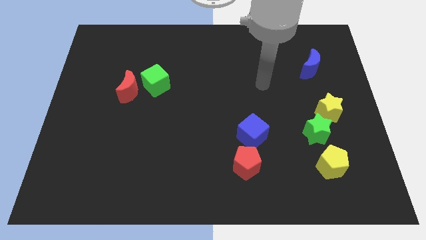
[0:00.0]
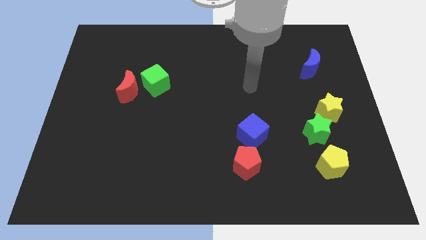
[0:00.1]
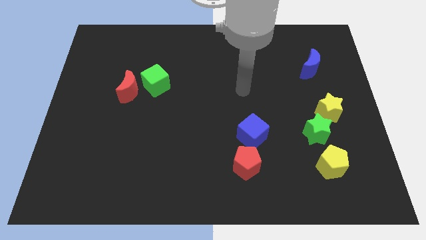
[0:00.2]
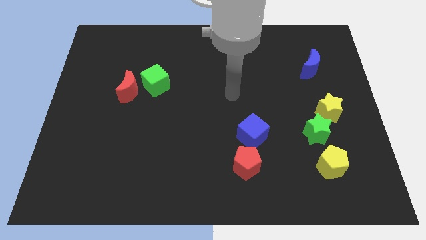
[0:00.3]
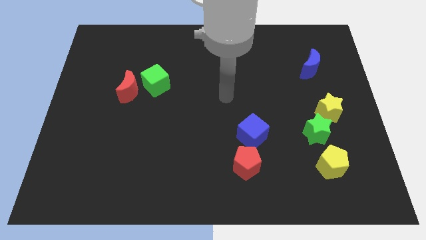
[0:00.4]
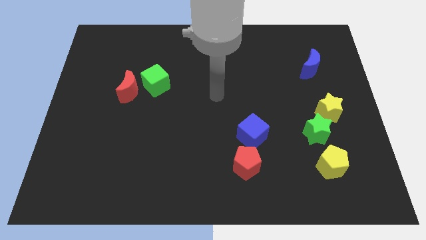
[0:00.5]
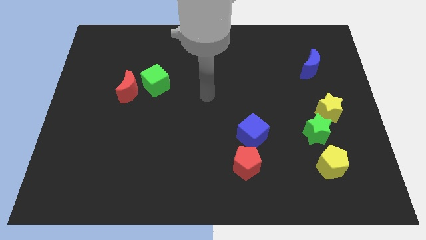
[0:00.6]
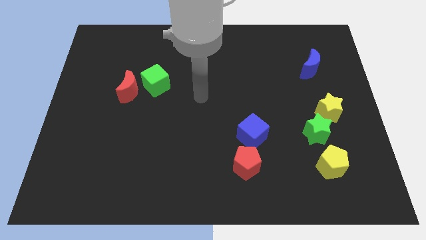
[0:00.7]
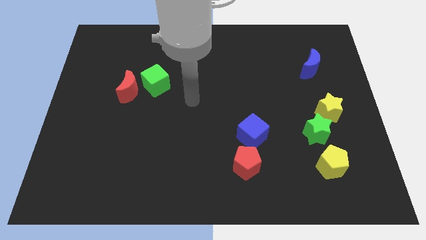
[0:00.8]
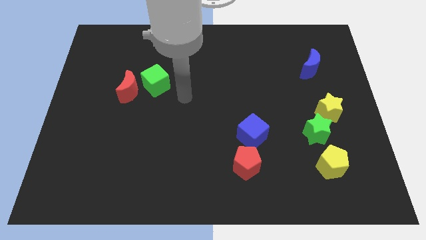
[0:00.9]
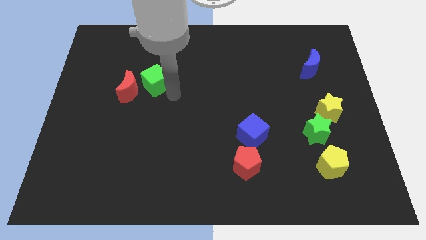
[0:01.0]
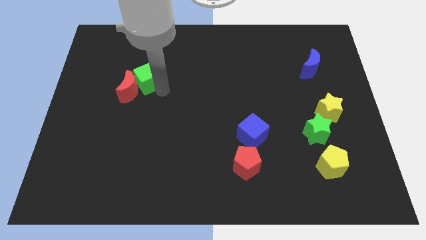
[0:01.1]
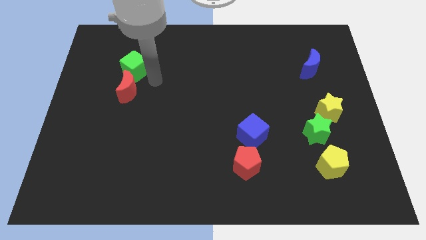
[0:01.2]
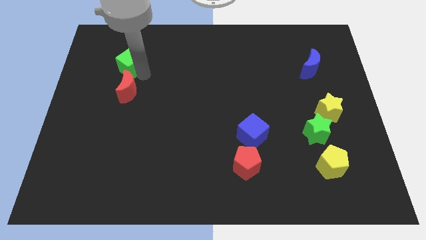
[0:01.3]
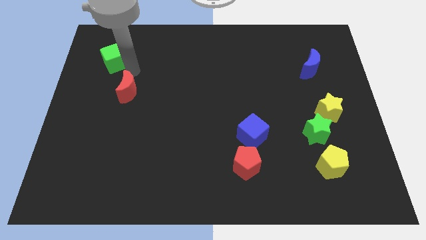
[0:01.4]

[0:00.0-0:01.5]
move the red moon away from the green cube

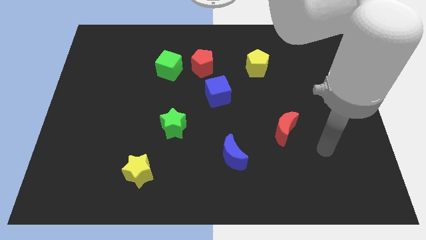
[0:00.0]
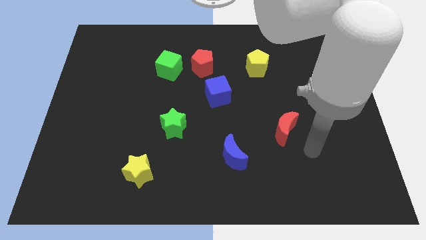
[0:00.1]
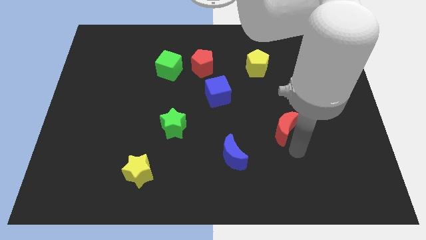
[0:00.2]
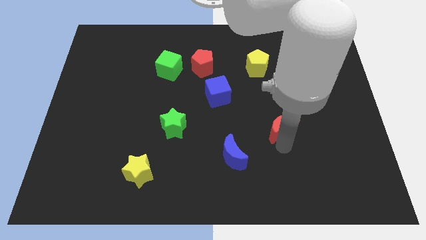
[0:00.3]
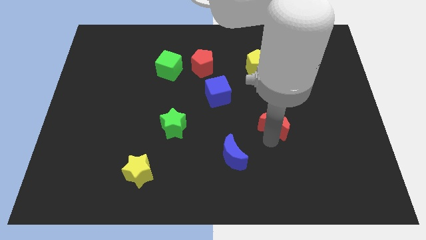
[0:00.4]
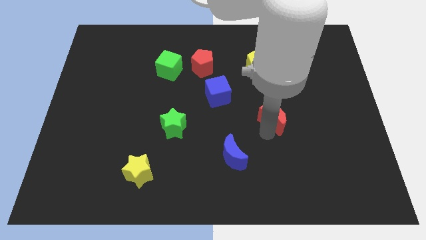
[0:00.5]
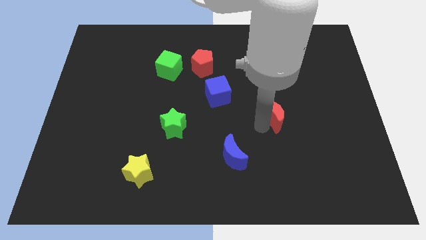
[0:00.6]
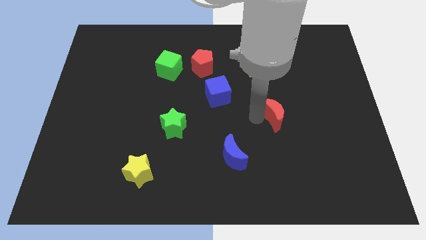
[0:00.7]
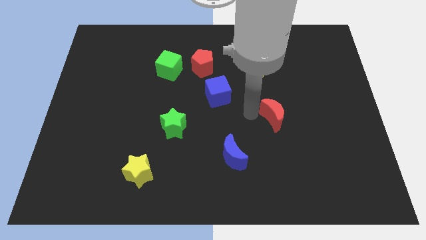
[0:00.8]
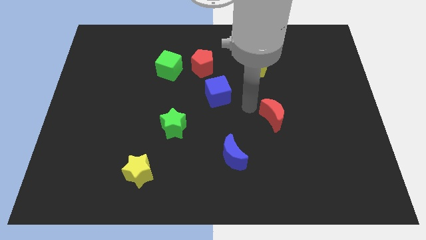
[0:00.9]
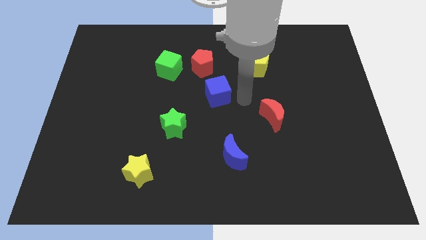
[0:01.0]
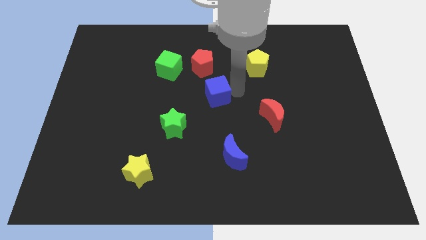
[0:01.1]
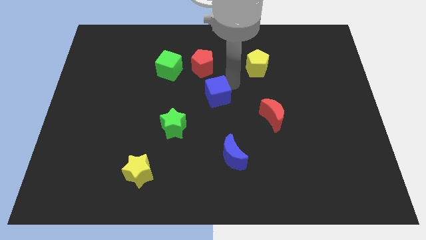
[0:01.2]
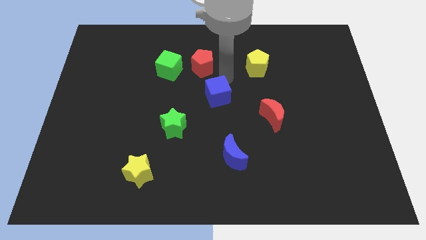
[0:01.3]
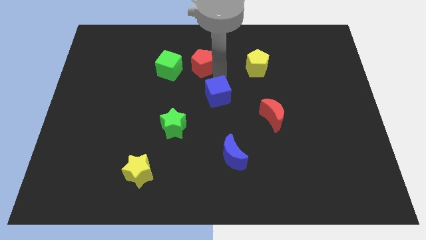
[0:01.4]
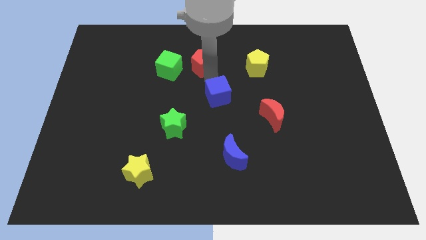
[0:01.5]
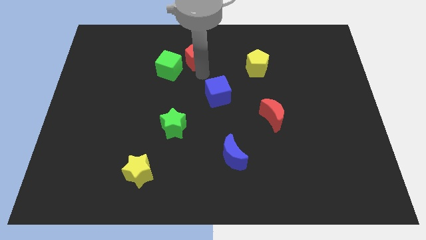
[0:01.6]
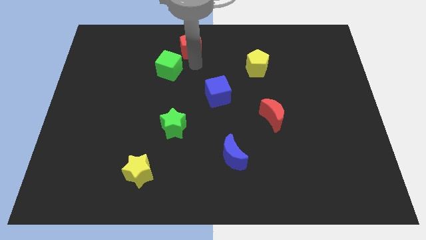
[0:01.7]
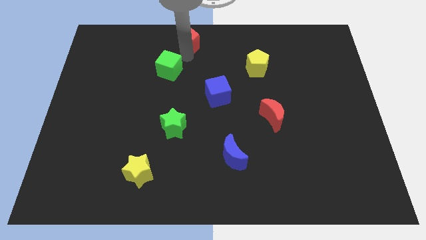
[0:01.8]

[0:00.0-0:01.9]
move the green cube away from the red pentagon

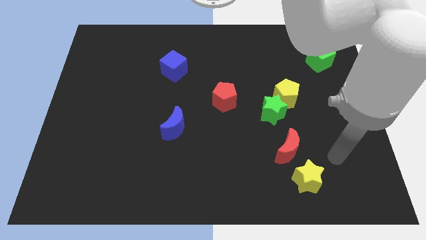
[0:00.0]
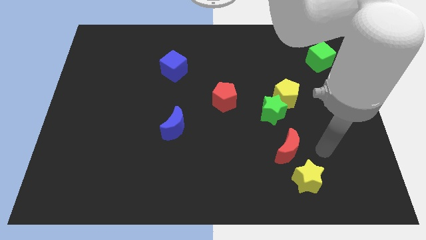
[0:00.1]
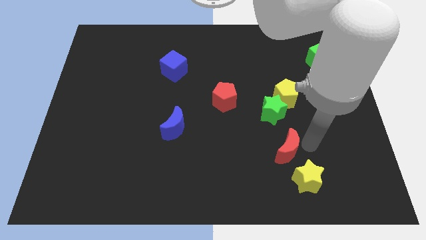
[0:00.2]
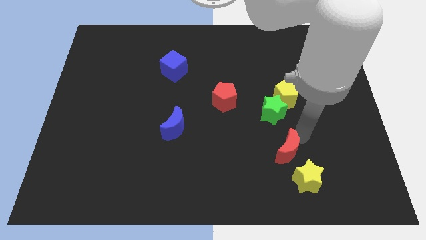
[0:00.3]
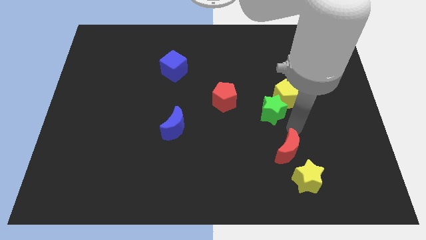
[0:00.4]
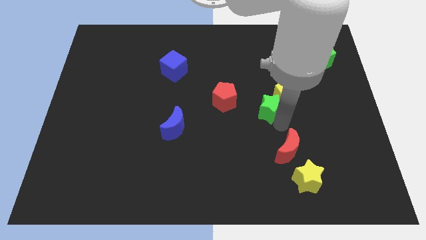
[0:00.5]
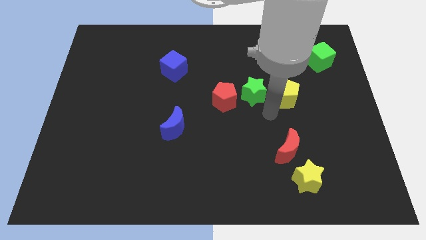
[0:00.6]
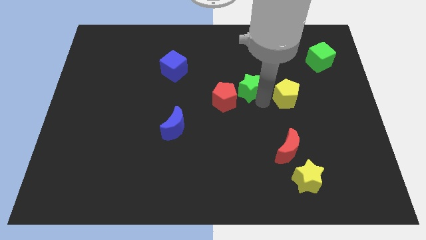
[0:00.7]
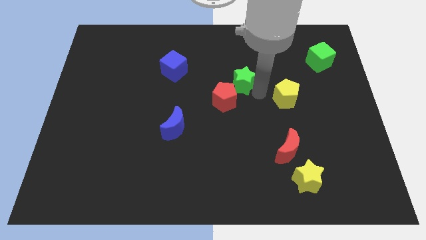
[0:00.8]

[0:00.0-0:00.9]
pull the yellow pentagon apart from the green star

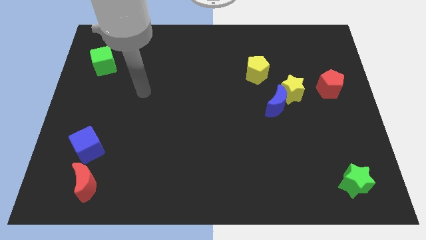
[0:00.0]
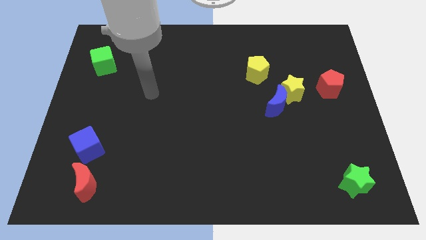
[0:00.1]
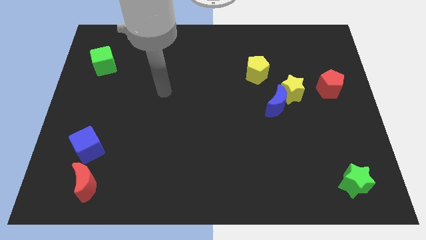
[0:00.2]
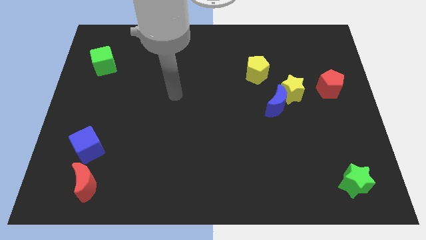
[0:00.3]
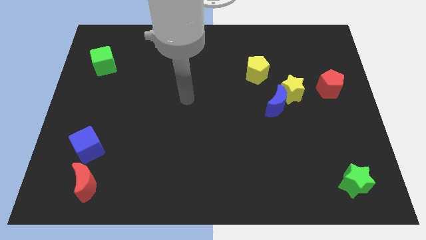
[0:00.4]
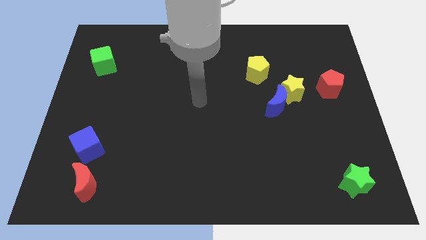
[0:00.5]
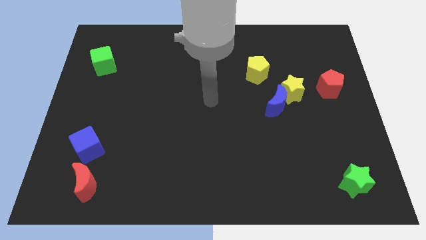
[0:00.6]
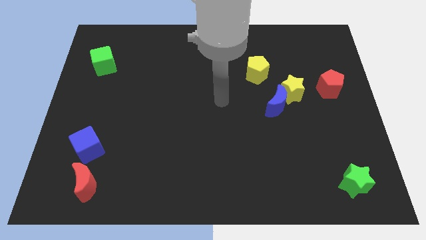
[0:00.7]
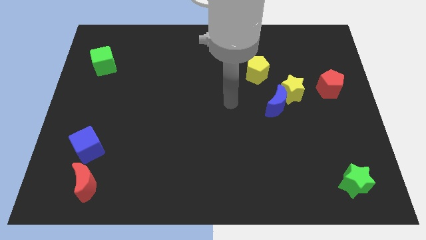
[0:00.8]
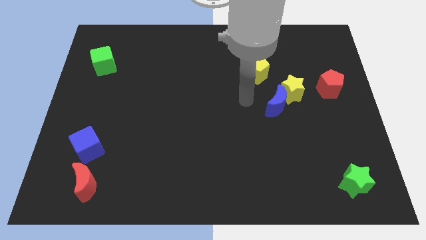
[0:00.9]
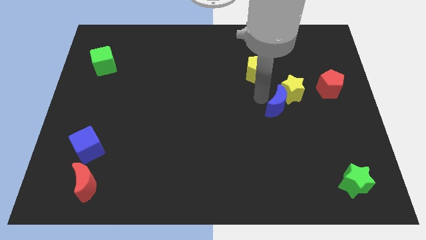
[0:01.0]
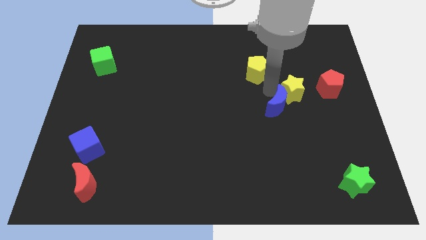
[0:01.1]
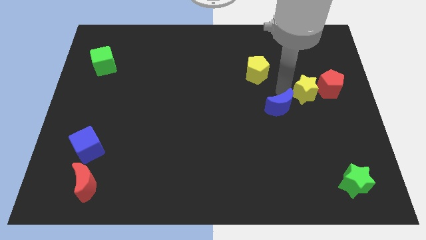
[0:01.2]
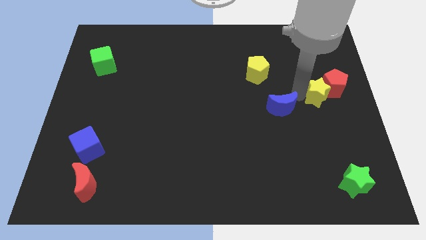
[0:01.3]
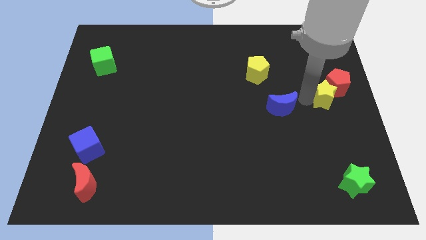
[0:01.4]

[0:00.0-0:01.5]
move the blue moon away from the yellow star

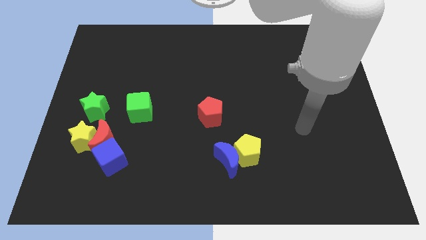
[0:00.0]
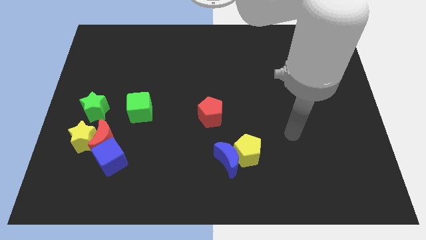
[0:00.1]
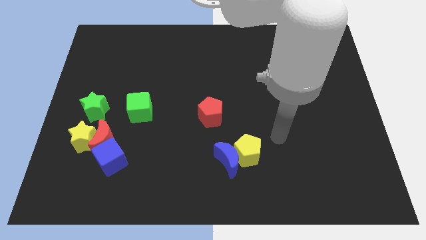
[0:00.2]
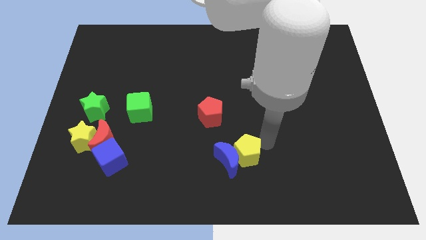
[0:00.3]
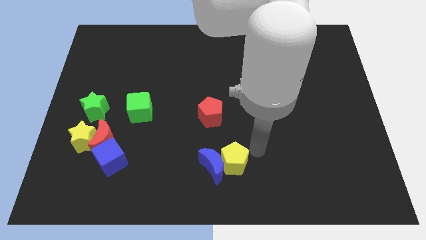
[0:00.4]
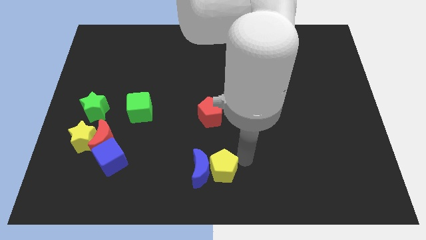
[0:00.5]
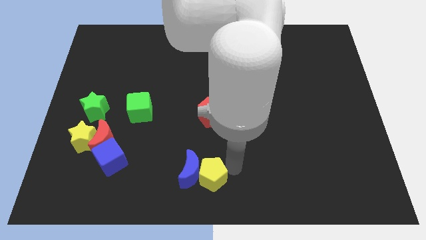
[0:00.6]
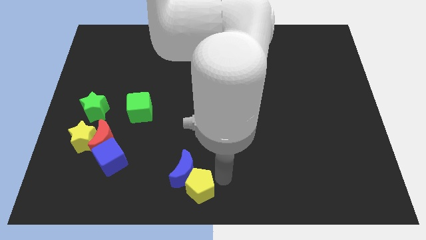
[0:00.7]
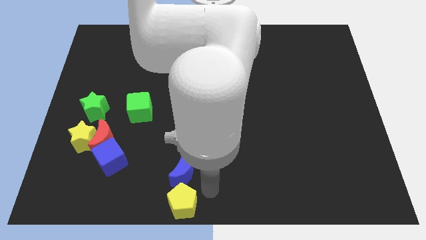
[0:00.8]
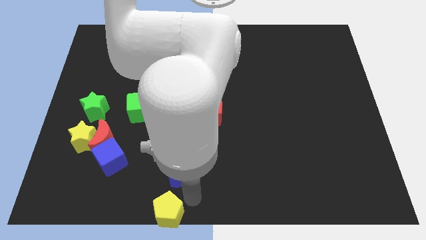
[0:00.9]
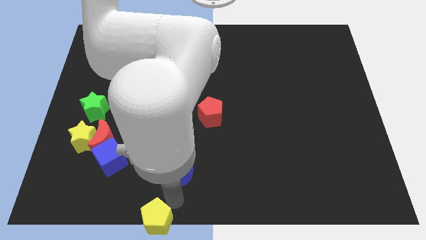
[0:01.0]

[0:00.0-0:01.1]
pull the blue moon apart from the yellow pentagon

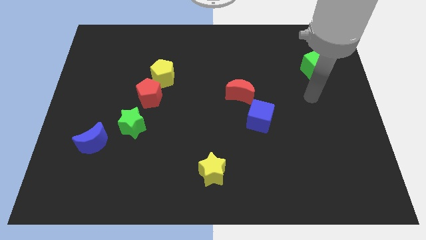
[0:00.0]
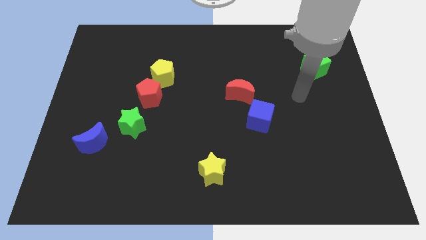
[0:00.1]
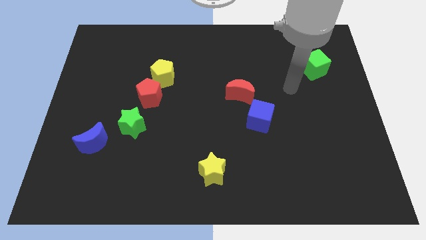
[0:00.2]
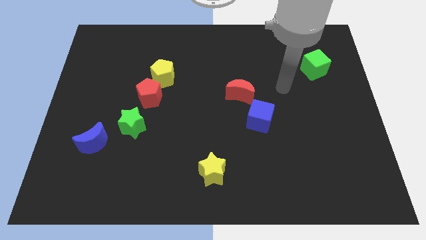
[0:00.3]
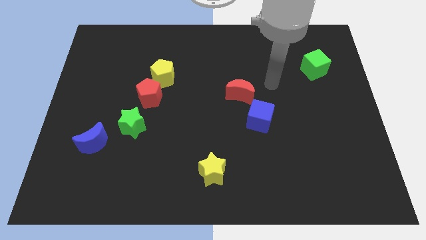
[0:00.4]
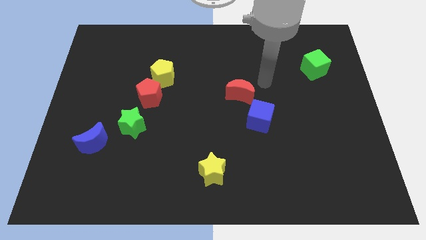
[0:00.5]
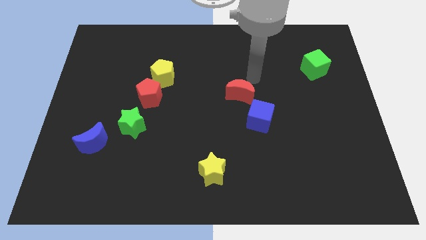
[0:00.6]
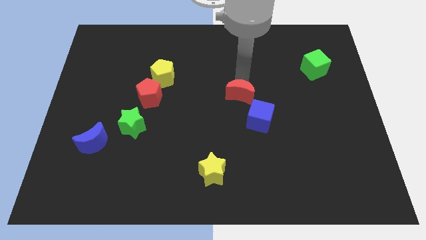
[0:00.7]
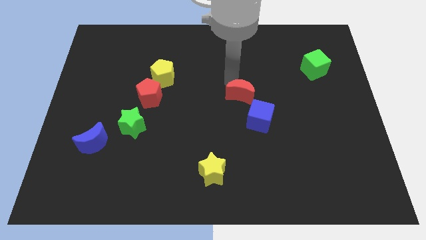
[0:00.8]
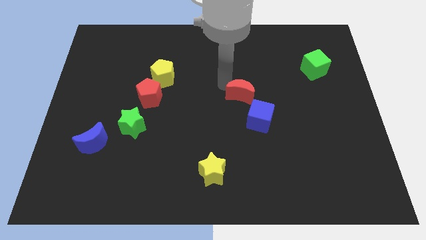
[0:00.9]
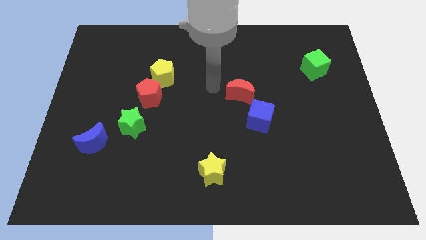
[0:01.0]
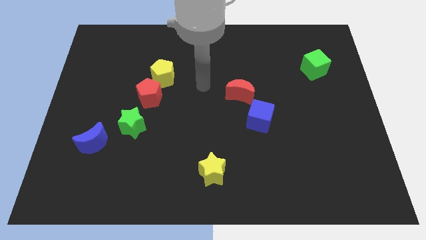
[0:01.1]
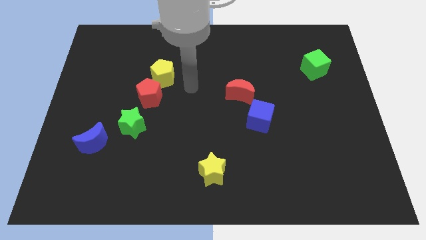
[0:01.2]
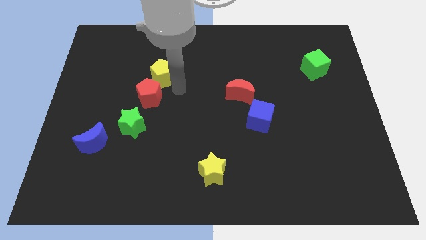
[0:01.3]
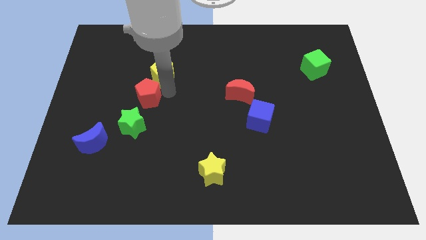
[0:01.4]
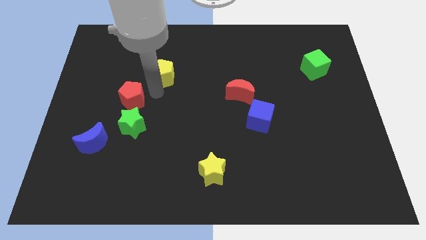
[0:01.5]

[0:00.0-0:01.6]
move the yellow pentagon away from the red pentagon

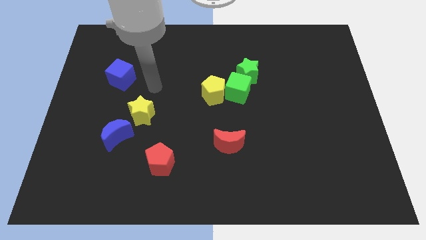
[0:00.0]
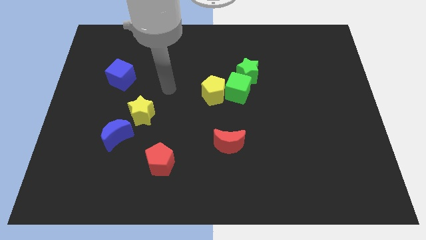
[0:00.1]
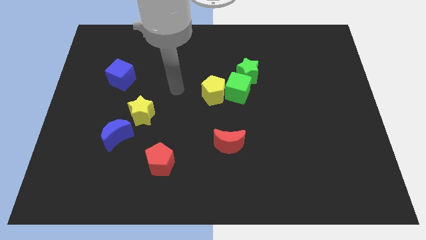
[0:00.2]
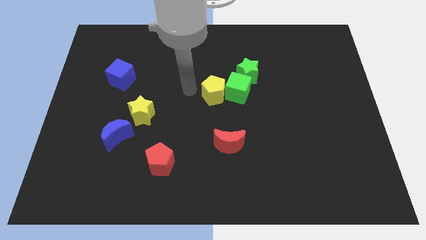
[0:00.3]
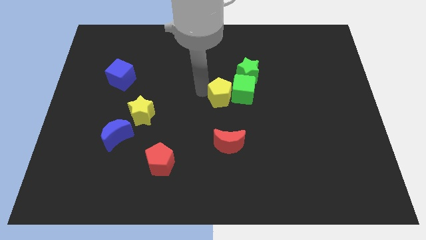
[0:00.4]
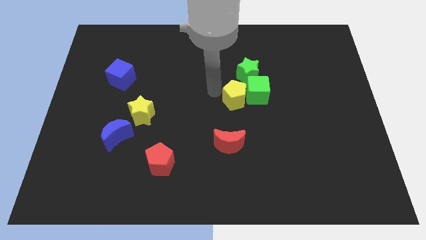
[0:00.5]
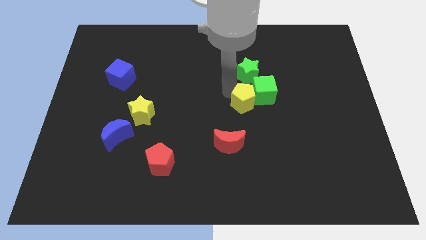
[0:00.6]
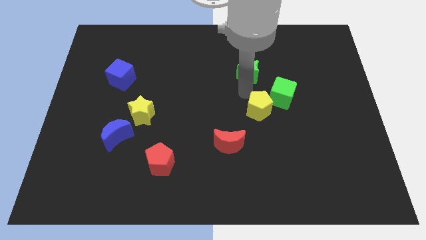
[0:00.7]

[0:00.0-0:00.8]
separate the green star from the green cube

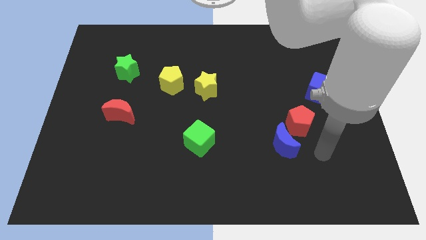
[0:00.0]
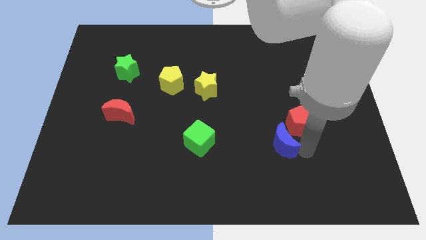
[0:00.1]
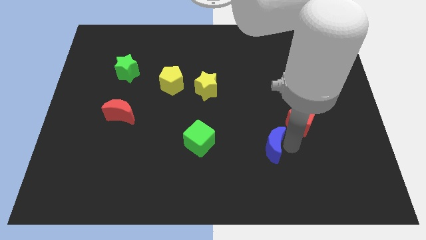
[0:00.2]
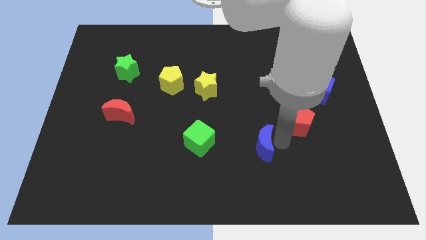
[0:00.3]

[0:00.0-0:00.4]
pull the red pentagon apart from the blue moon
